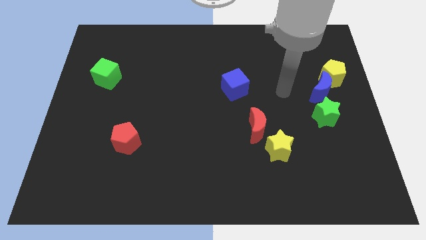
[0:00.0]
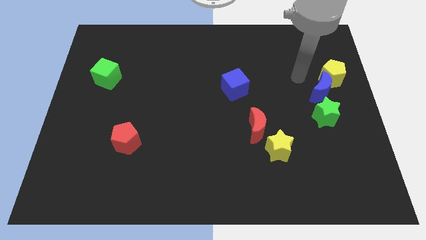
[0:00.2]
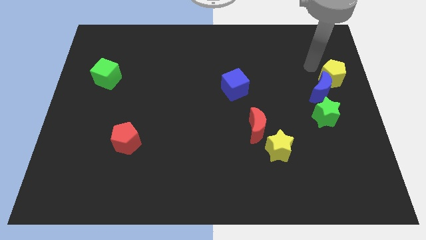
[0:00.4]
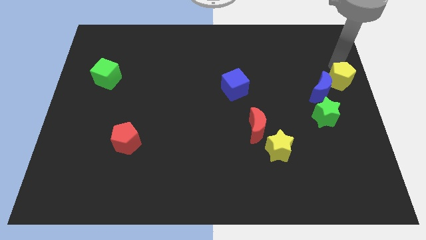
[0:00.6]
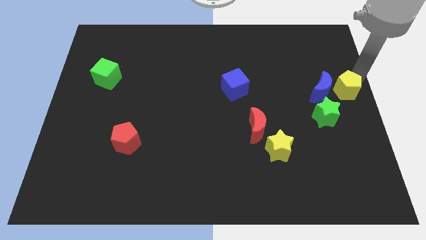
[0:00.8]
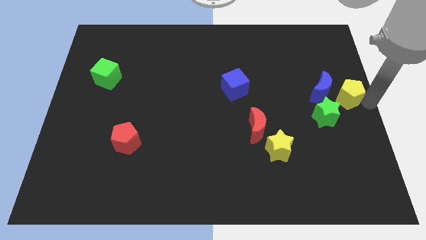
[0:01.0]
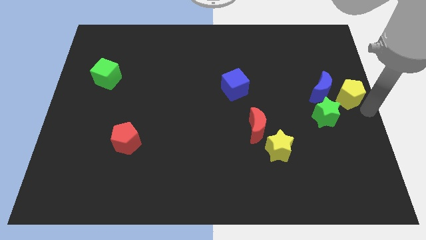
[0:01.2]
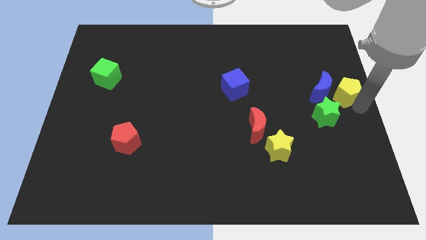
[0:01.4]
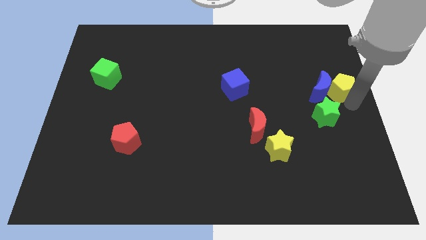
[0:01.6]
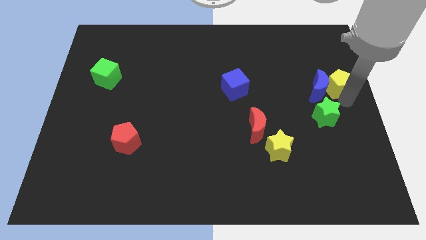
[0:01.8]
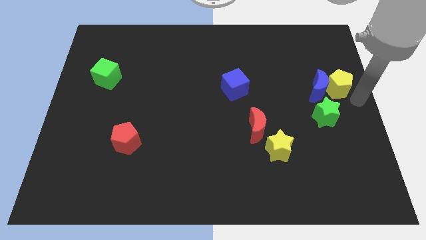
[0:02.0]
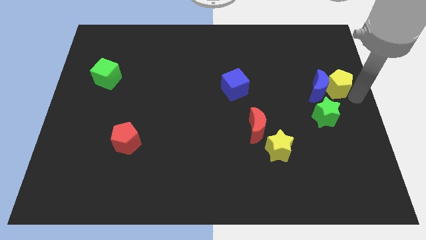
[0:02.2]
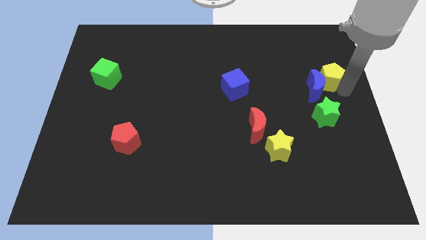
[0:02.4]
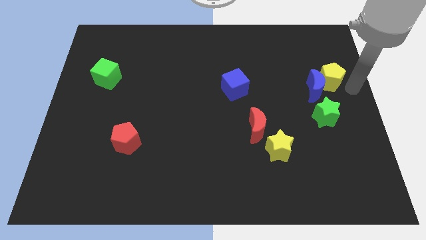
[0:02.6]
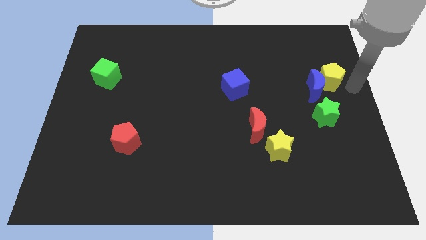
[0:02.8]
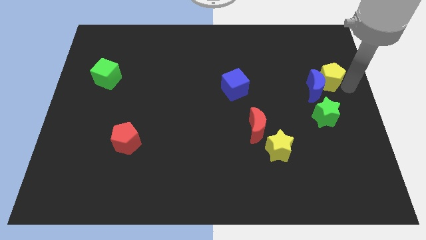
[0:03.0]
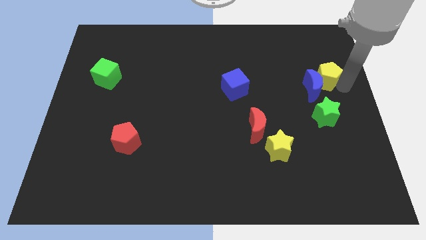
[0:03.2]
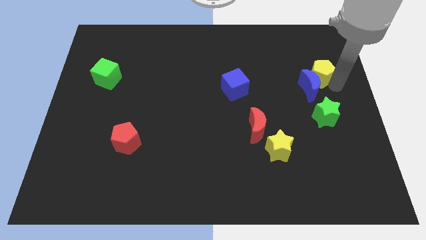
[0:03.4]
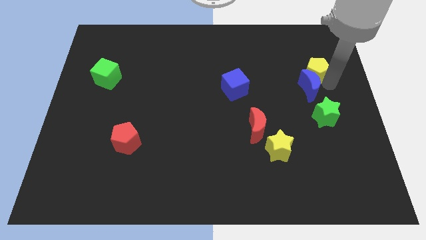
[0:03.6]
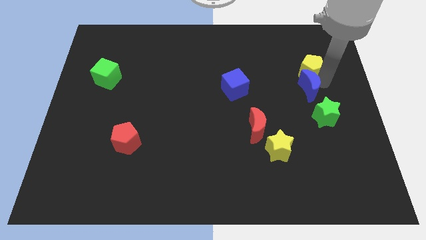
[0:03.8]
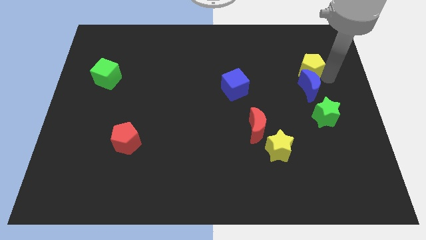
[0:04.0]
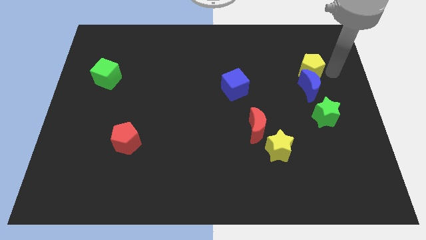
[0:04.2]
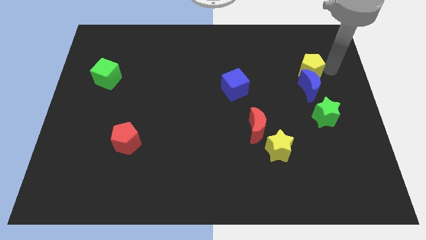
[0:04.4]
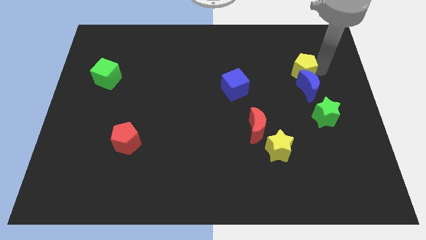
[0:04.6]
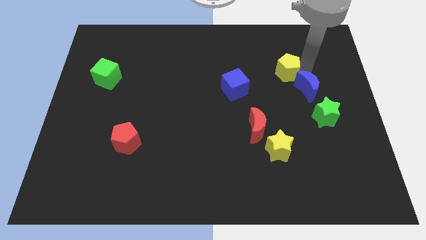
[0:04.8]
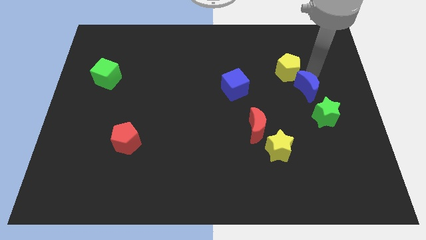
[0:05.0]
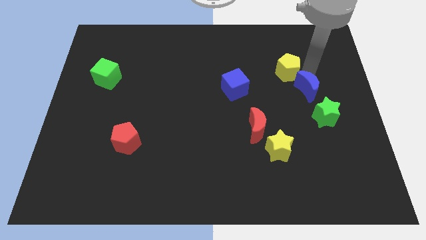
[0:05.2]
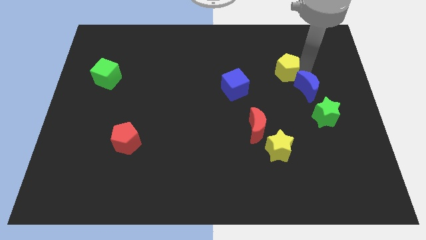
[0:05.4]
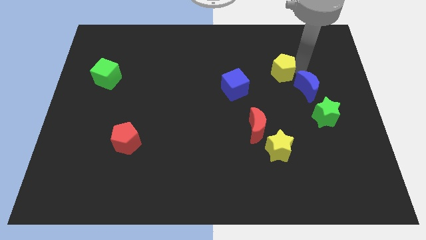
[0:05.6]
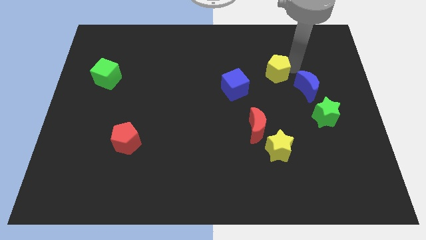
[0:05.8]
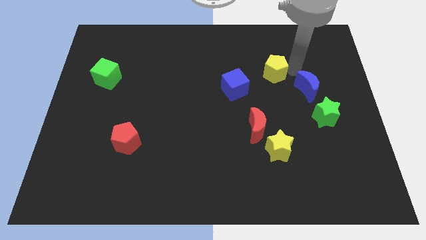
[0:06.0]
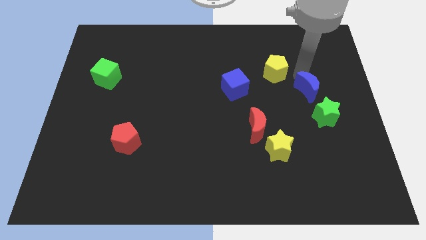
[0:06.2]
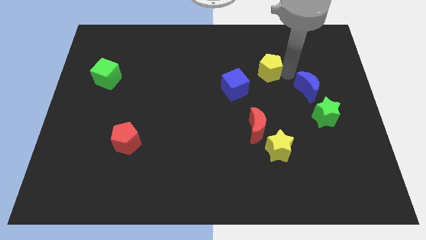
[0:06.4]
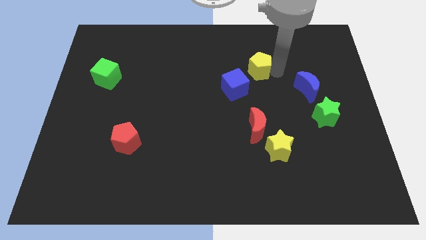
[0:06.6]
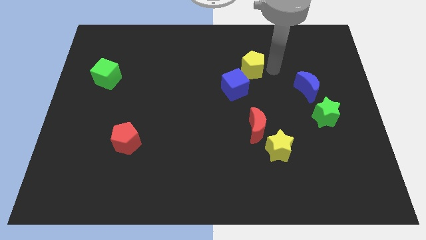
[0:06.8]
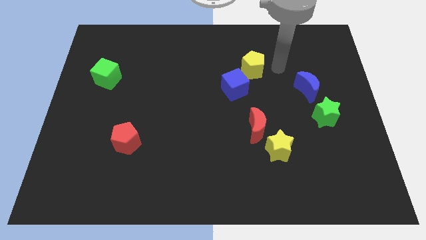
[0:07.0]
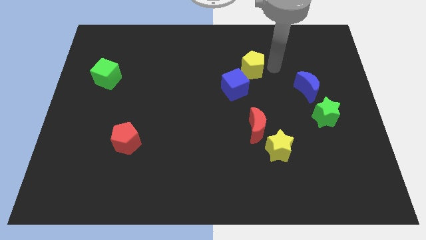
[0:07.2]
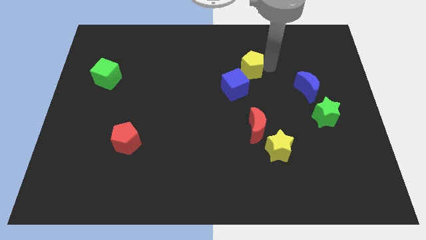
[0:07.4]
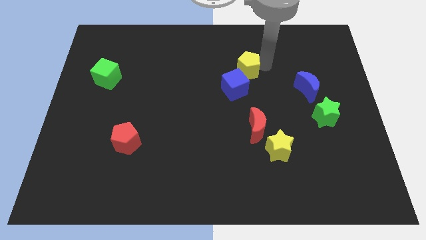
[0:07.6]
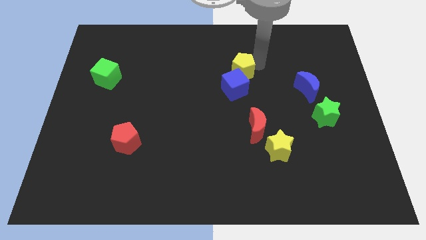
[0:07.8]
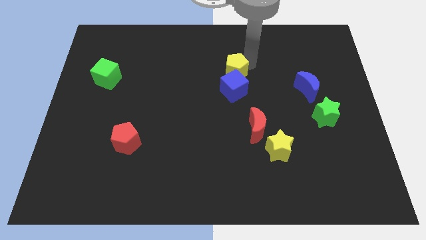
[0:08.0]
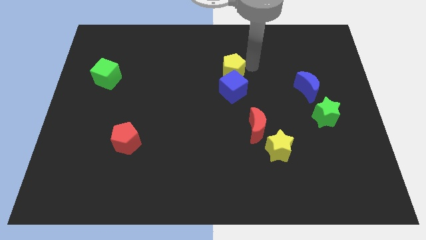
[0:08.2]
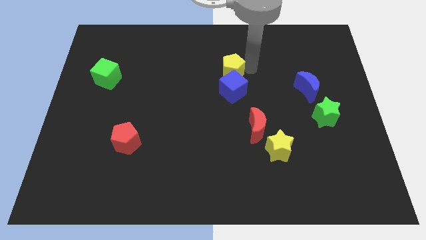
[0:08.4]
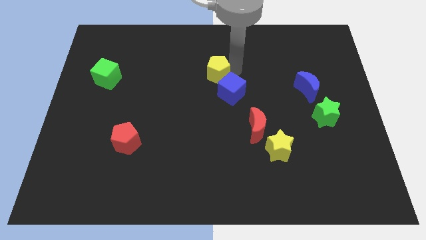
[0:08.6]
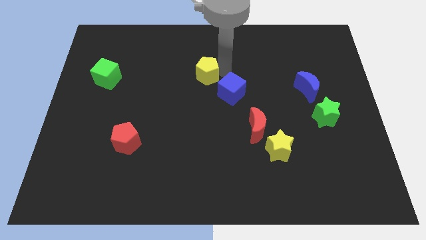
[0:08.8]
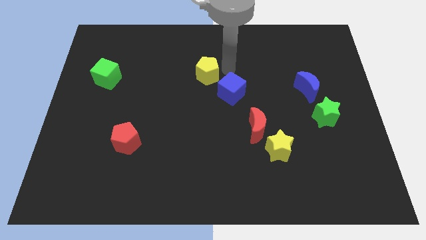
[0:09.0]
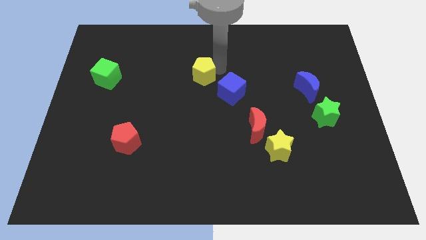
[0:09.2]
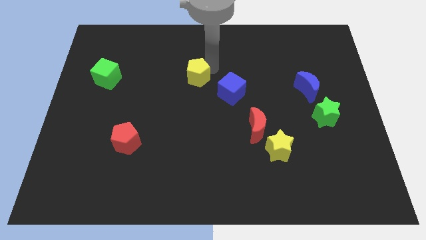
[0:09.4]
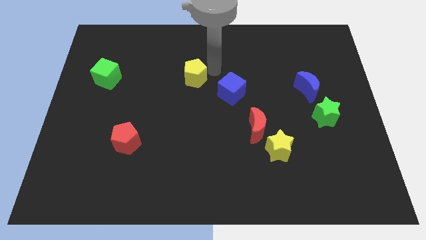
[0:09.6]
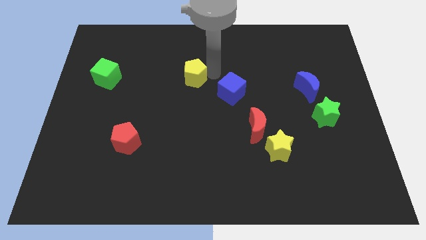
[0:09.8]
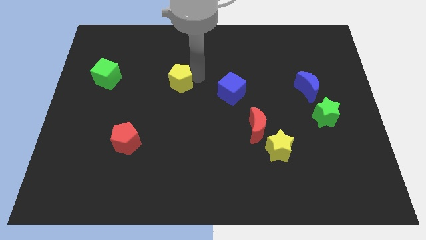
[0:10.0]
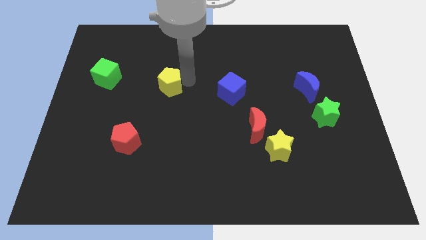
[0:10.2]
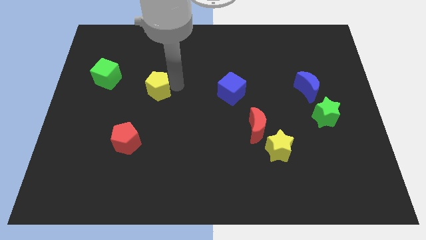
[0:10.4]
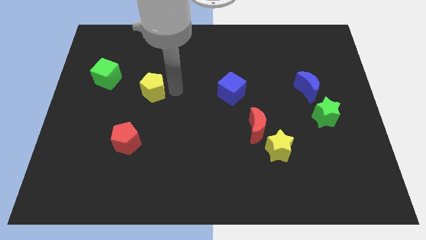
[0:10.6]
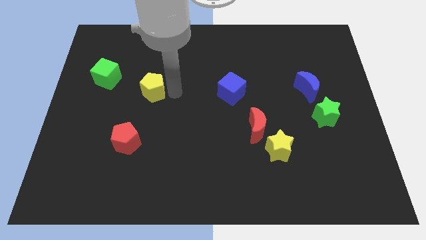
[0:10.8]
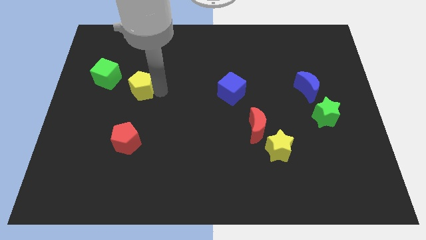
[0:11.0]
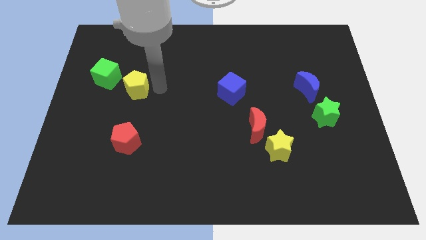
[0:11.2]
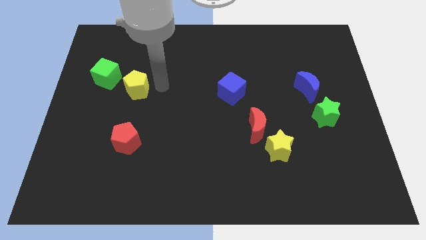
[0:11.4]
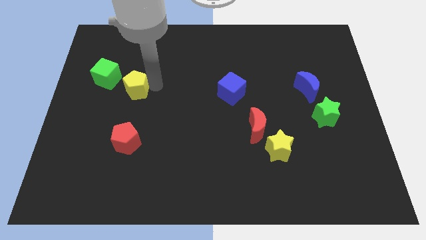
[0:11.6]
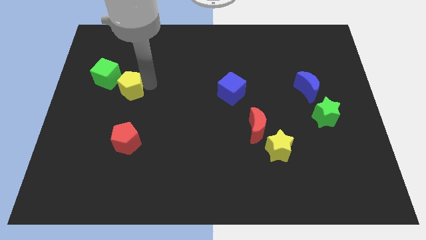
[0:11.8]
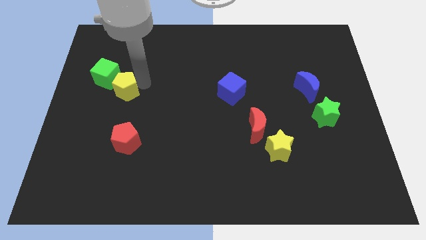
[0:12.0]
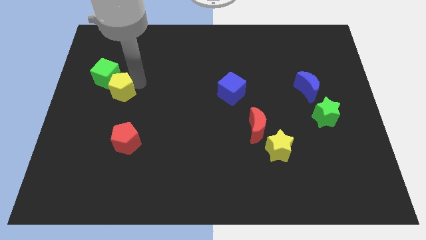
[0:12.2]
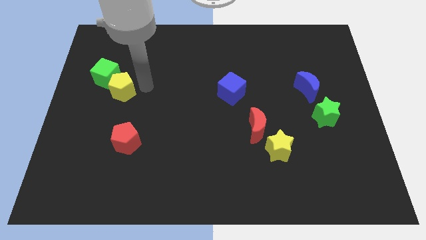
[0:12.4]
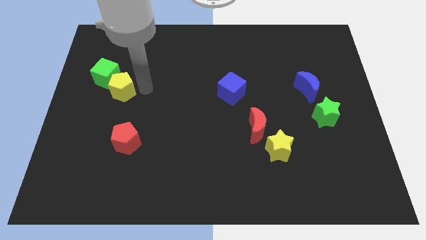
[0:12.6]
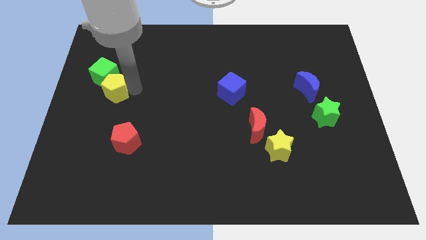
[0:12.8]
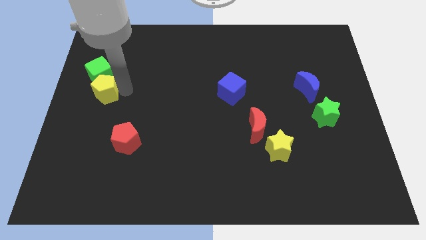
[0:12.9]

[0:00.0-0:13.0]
move the yellow pentagon to the left side

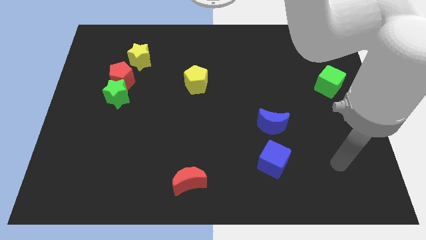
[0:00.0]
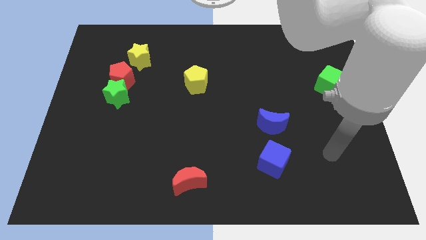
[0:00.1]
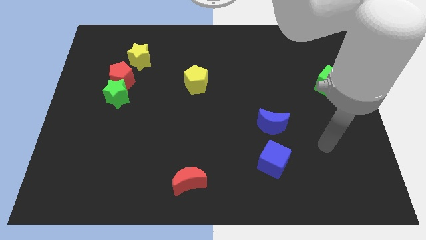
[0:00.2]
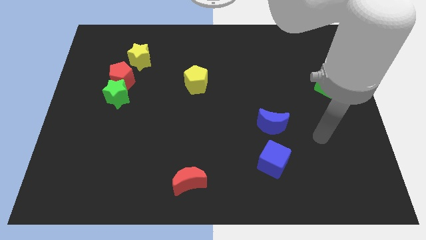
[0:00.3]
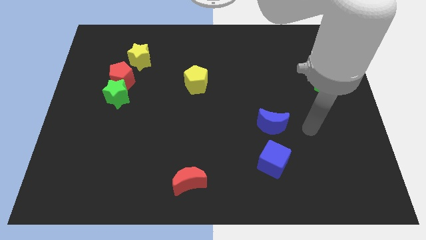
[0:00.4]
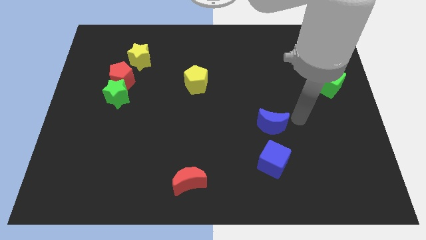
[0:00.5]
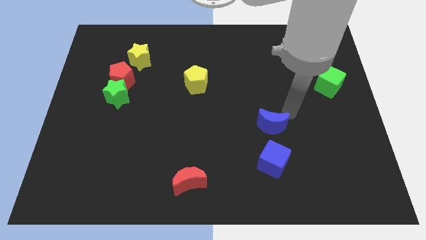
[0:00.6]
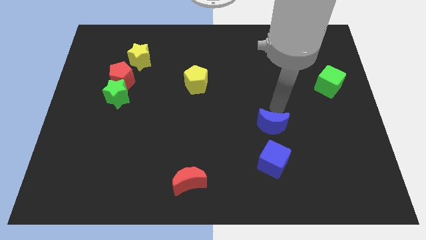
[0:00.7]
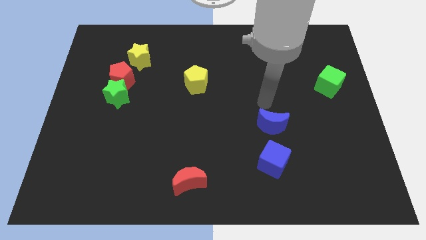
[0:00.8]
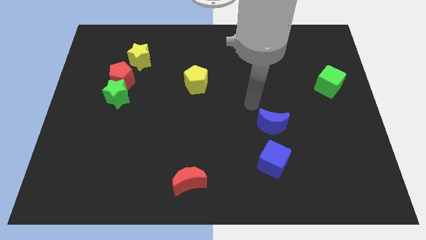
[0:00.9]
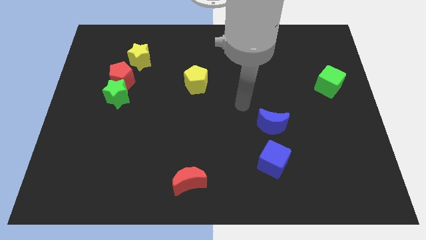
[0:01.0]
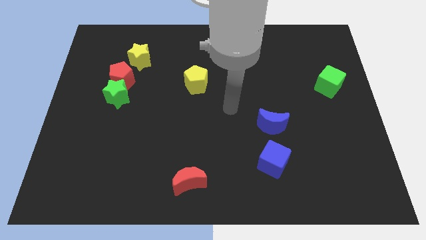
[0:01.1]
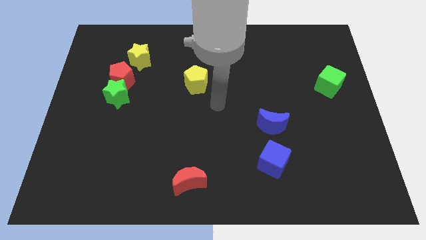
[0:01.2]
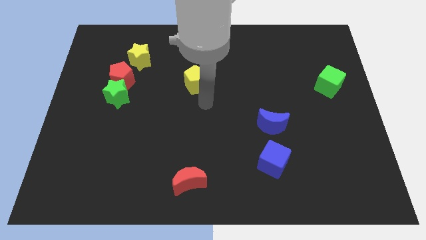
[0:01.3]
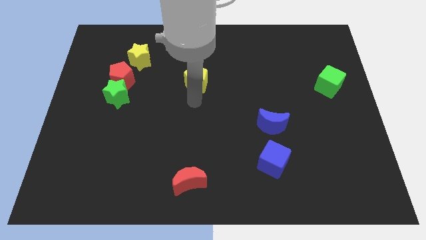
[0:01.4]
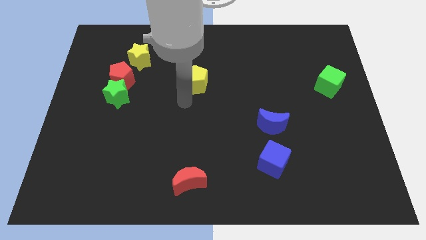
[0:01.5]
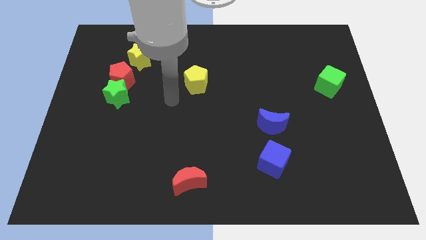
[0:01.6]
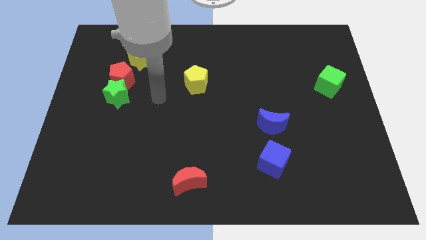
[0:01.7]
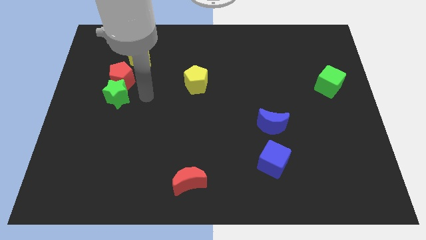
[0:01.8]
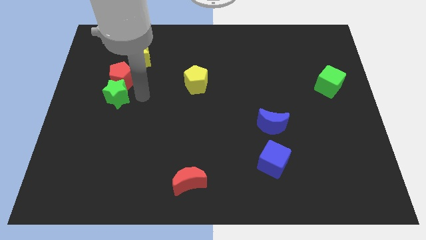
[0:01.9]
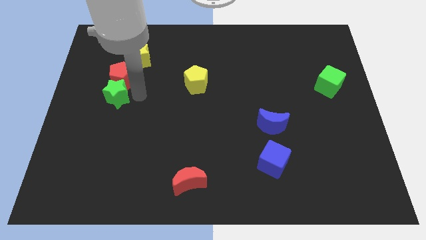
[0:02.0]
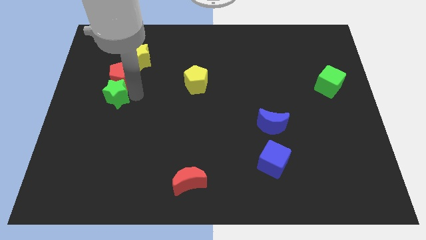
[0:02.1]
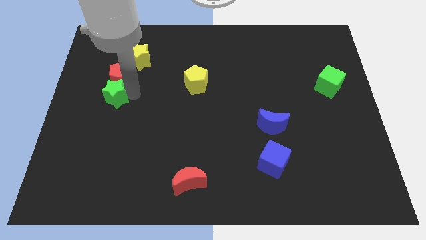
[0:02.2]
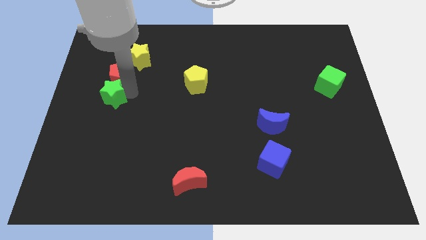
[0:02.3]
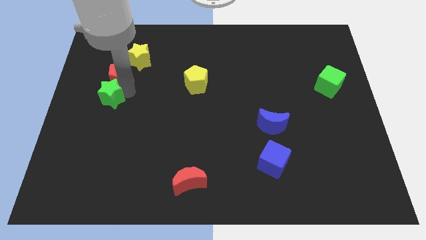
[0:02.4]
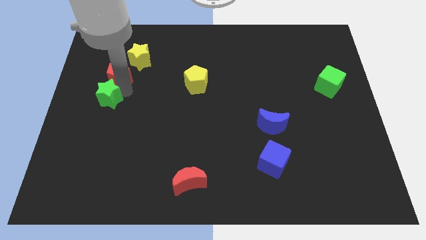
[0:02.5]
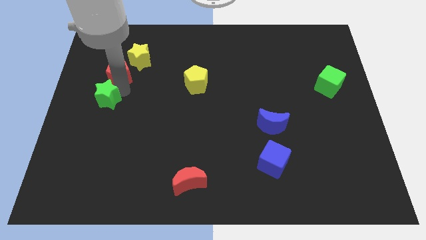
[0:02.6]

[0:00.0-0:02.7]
move the green star to the left side
